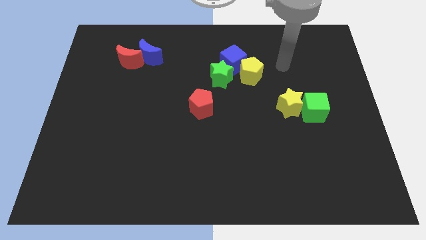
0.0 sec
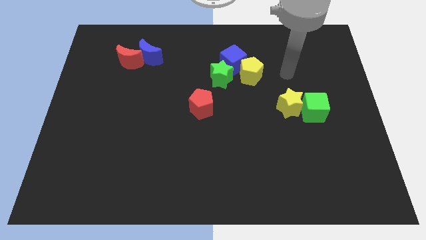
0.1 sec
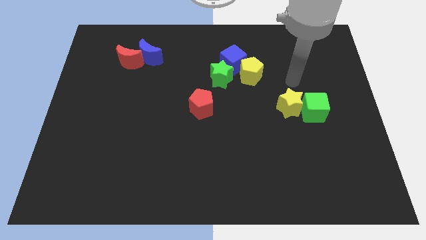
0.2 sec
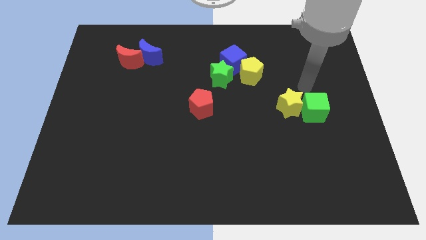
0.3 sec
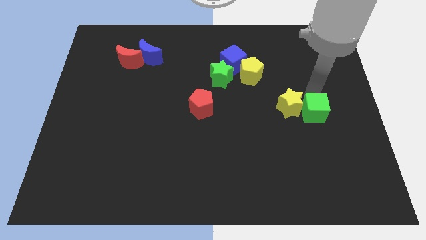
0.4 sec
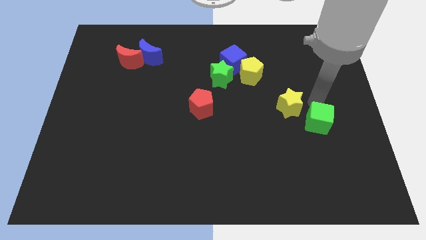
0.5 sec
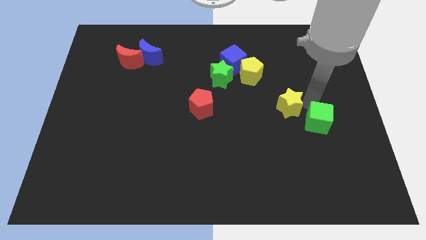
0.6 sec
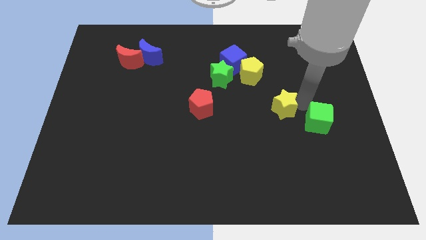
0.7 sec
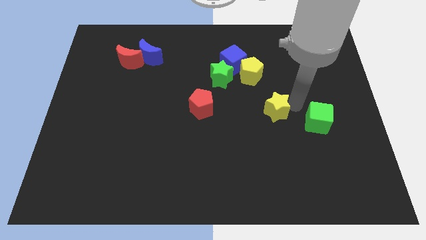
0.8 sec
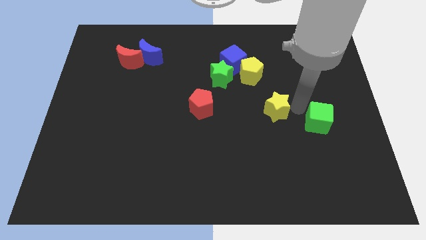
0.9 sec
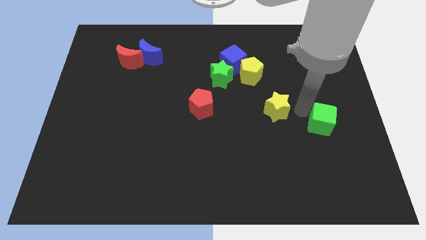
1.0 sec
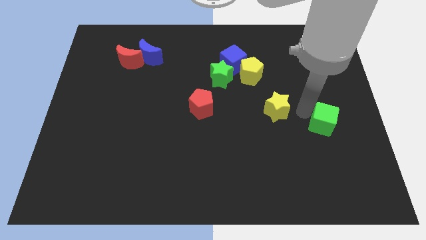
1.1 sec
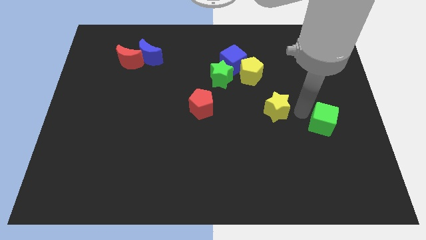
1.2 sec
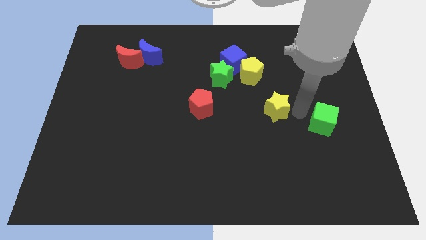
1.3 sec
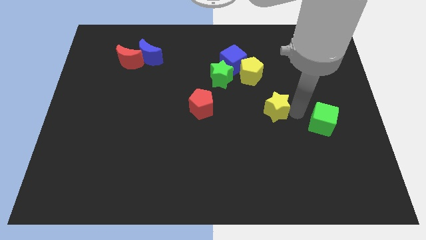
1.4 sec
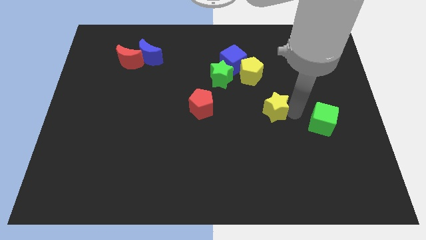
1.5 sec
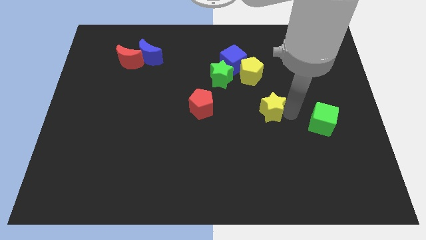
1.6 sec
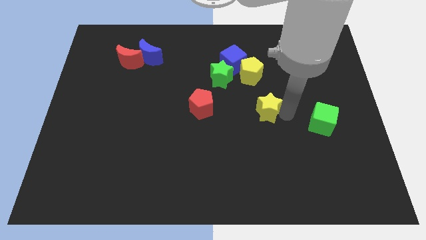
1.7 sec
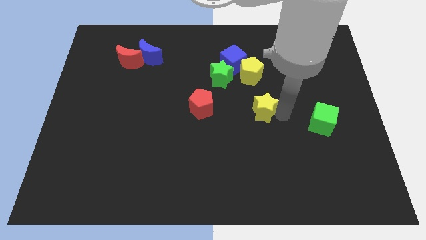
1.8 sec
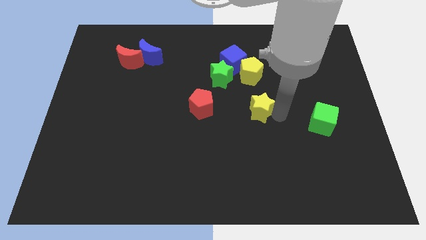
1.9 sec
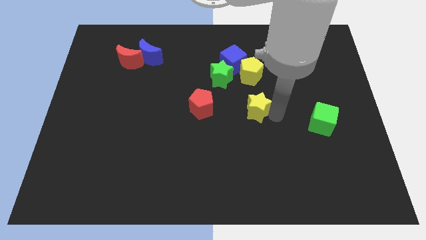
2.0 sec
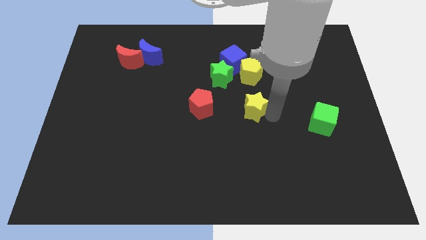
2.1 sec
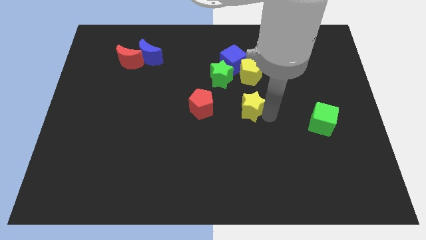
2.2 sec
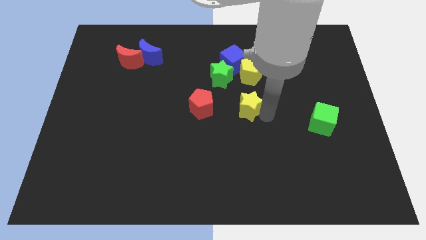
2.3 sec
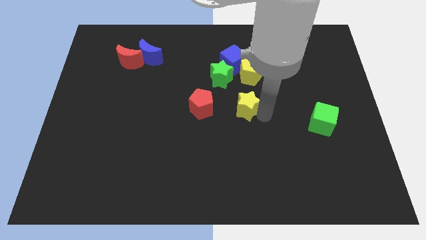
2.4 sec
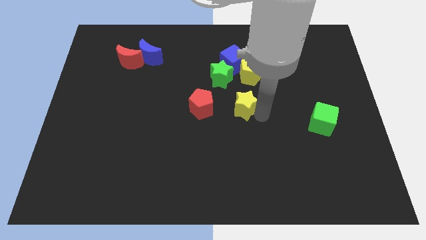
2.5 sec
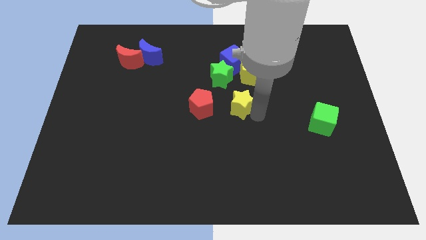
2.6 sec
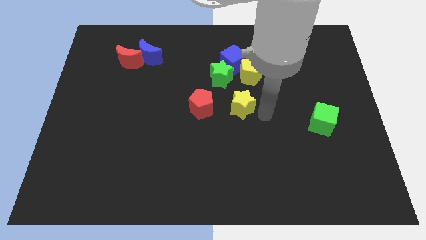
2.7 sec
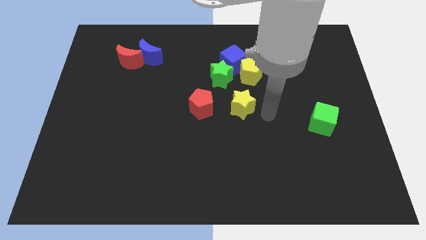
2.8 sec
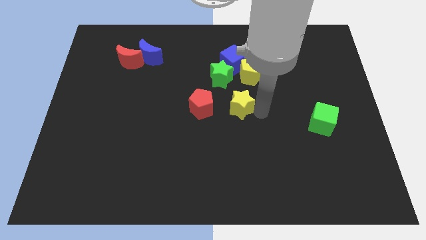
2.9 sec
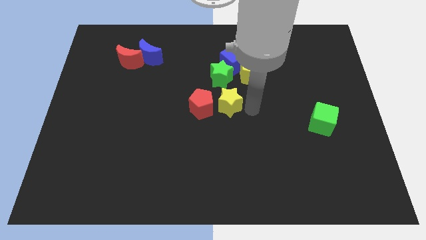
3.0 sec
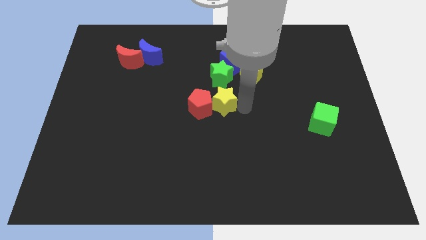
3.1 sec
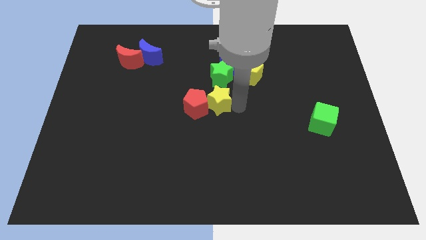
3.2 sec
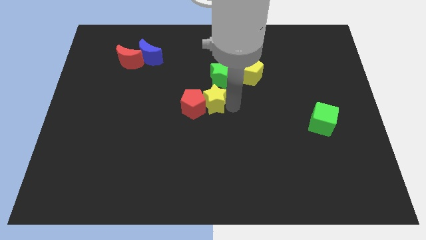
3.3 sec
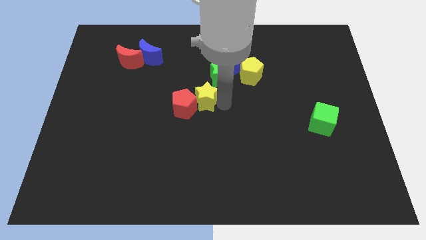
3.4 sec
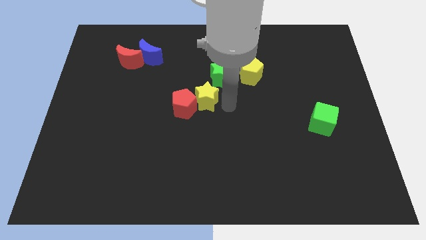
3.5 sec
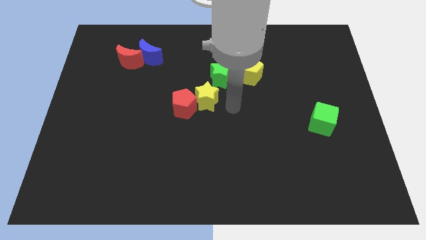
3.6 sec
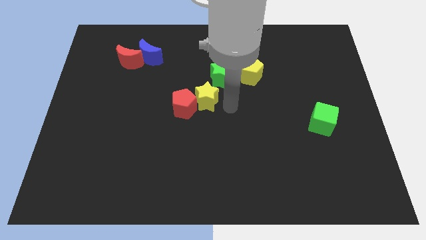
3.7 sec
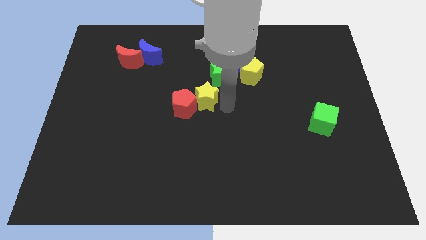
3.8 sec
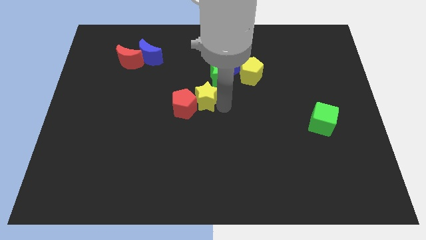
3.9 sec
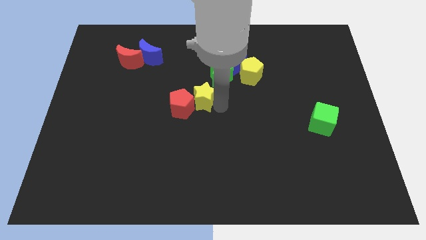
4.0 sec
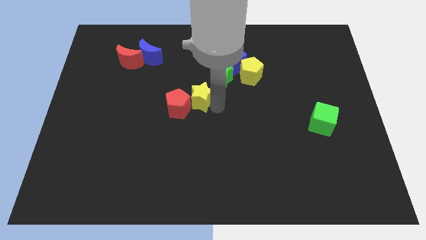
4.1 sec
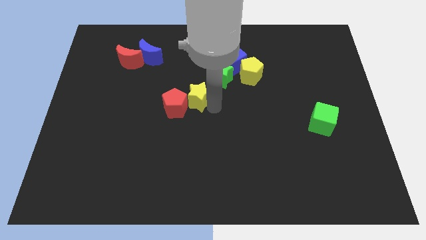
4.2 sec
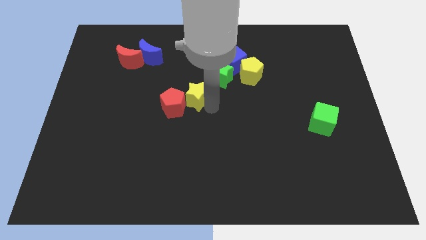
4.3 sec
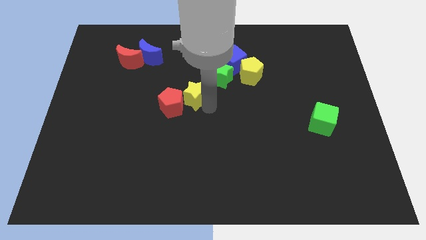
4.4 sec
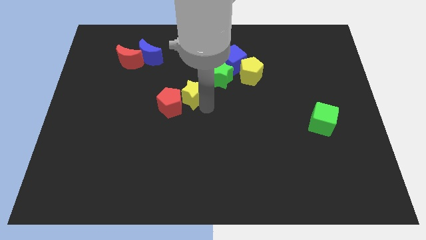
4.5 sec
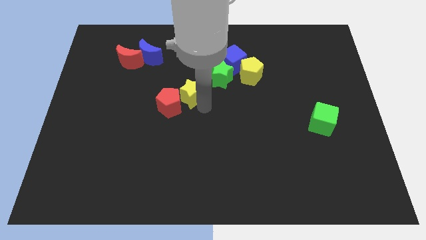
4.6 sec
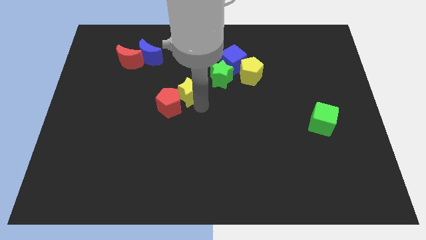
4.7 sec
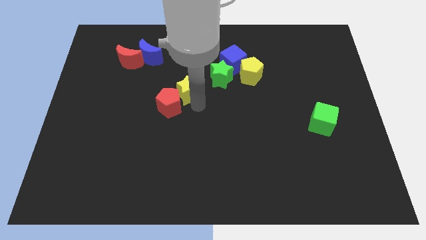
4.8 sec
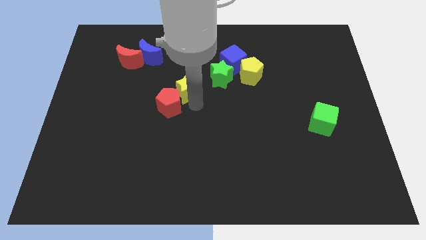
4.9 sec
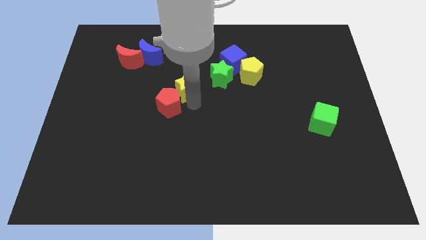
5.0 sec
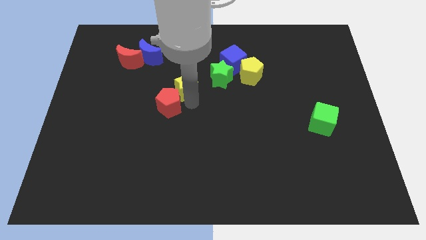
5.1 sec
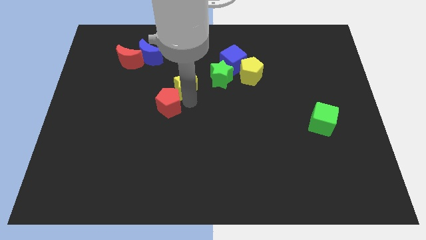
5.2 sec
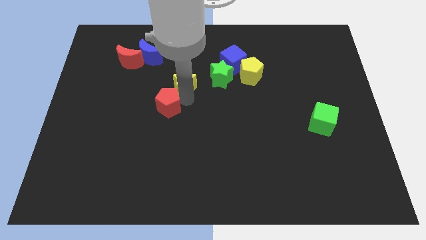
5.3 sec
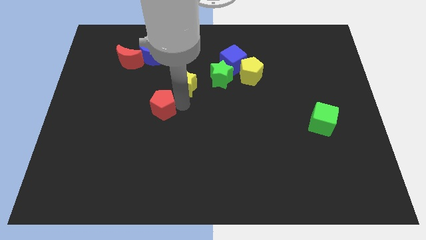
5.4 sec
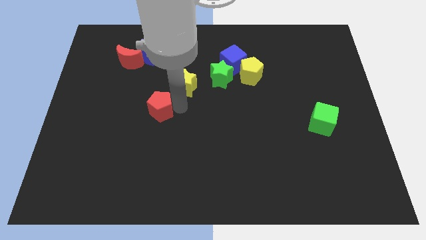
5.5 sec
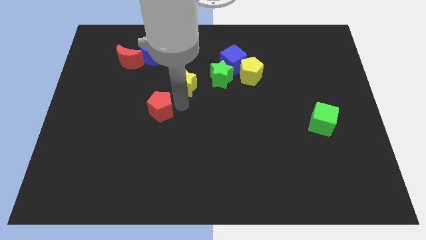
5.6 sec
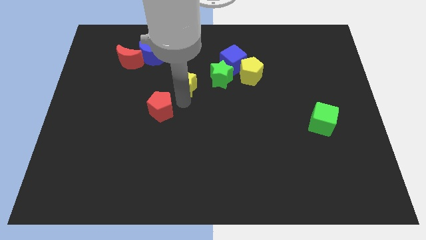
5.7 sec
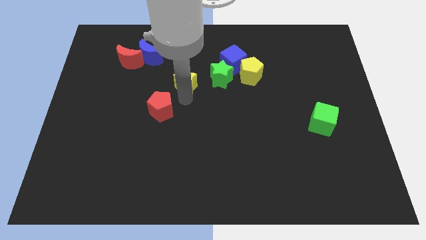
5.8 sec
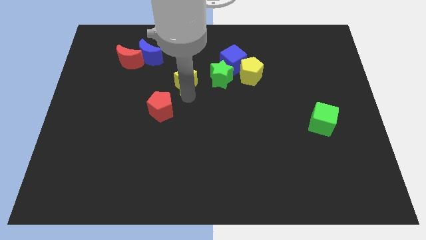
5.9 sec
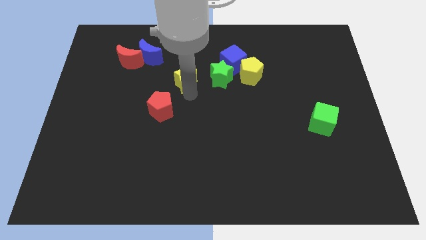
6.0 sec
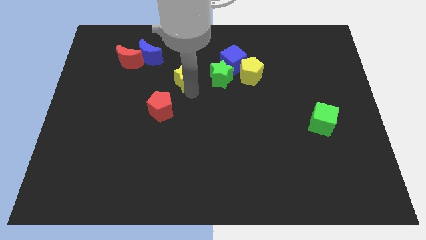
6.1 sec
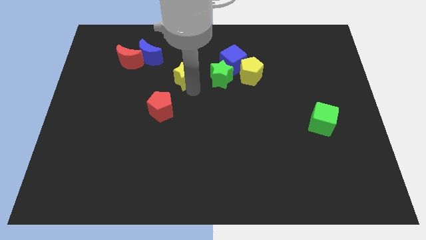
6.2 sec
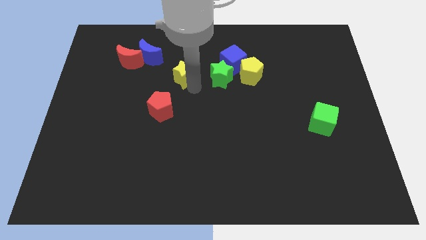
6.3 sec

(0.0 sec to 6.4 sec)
slide the yellow star just left of the blue cube

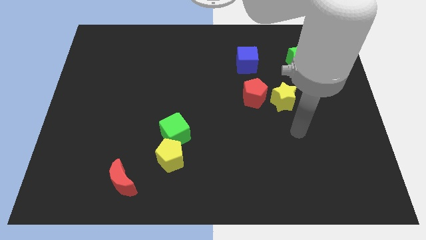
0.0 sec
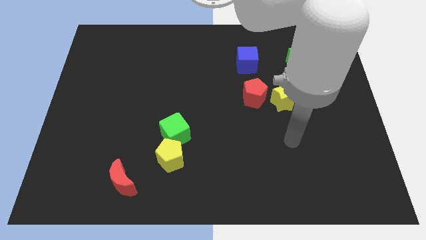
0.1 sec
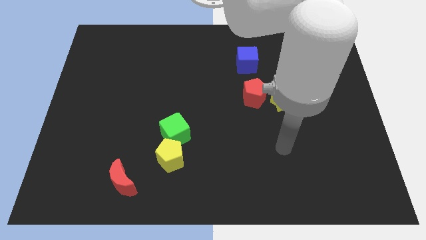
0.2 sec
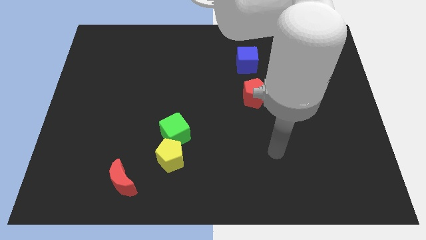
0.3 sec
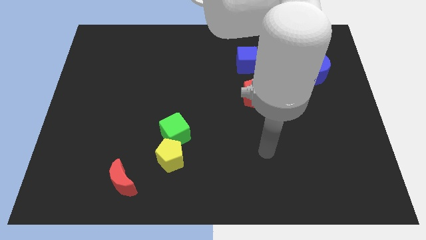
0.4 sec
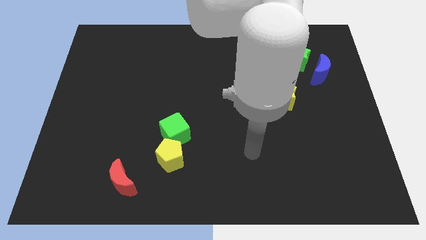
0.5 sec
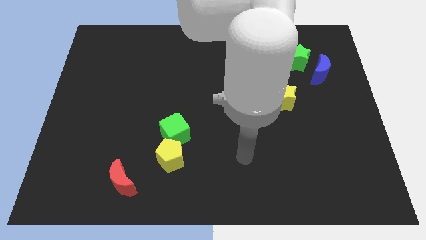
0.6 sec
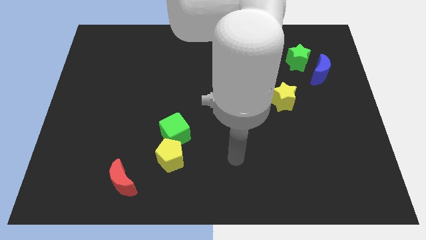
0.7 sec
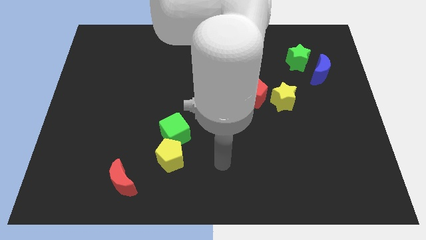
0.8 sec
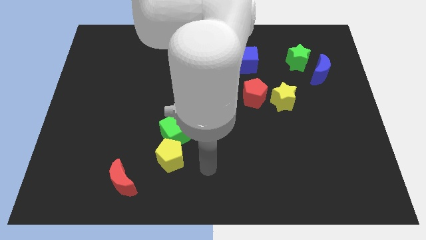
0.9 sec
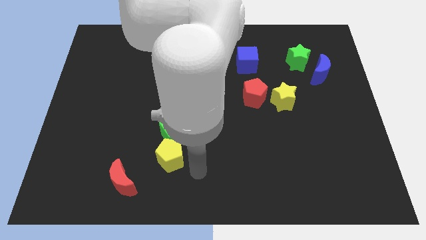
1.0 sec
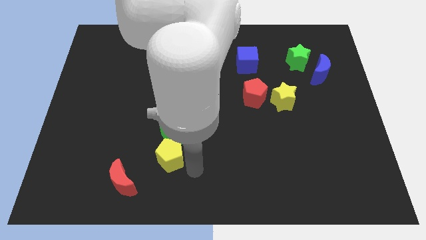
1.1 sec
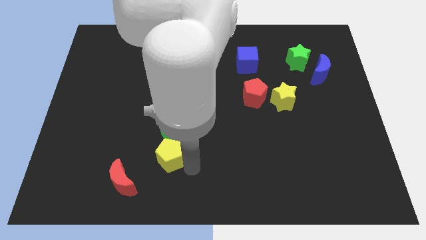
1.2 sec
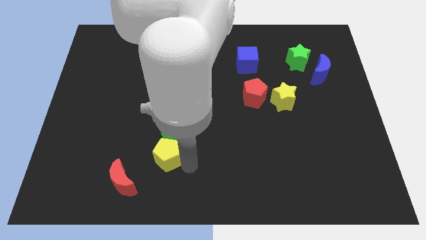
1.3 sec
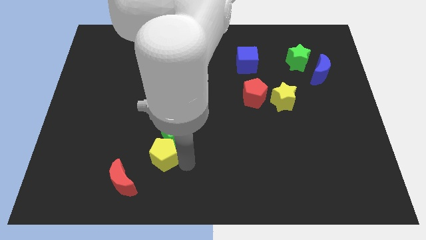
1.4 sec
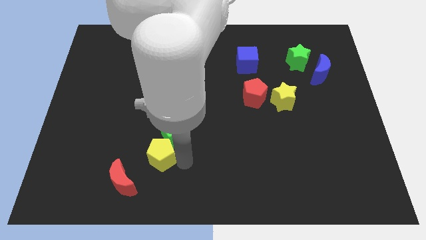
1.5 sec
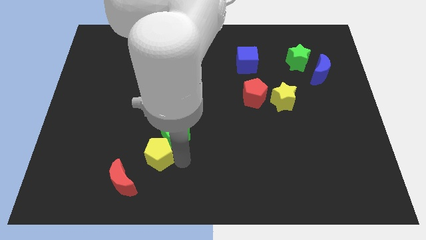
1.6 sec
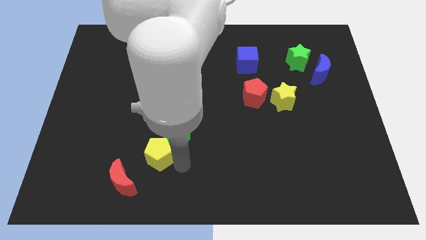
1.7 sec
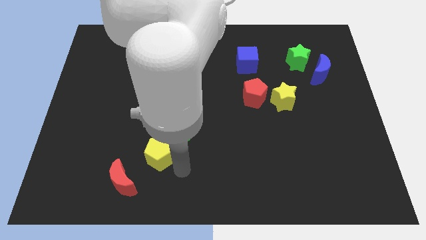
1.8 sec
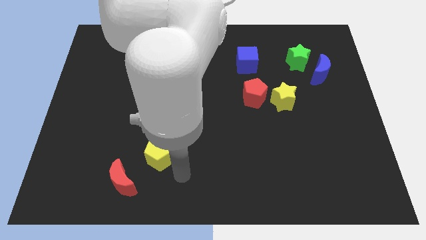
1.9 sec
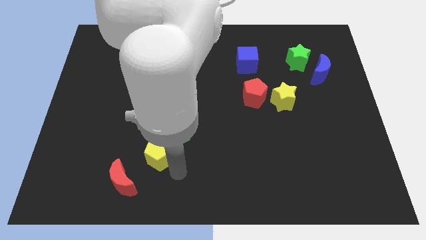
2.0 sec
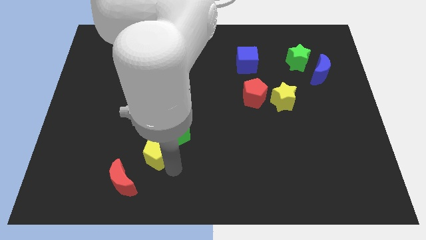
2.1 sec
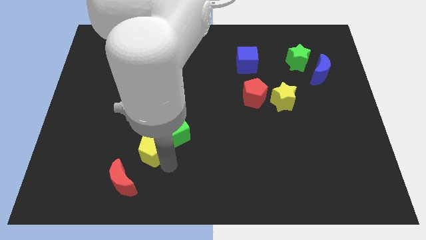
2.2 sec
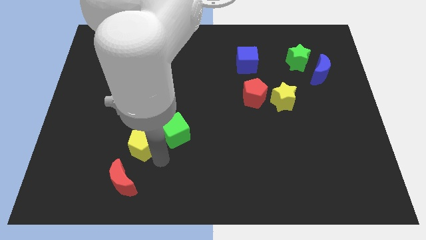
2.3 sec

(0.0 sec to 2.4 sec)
slide the yellow pentagon just left of the green cube
